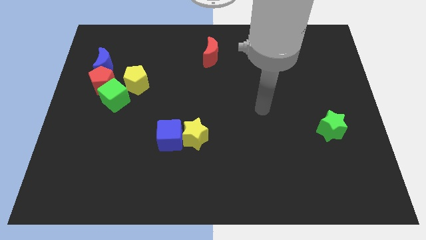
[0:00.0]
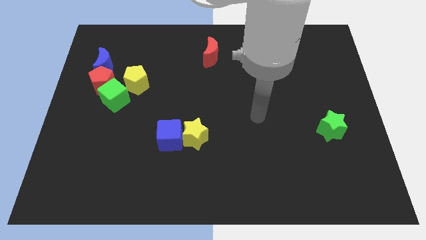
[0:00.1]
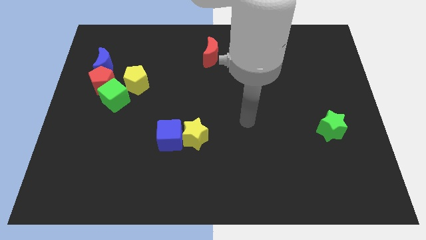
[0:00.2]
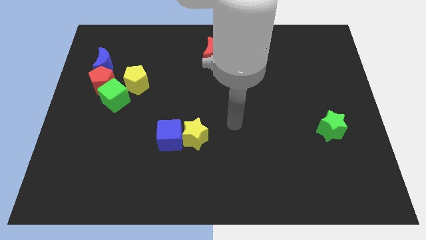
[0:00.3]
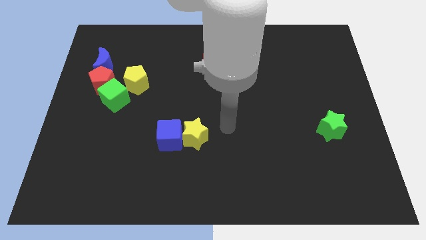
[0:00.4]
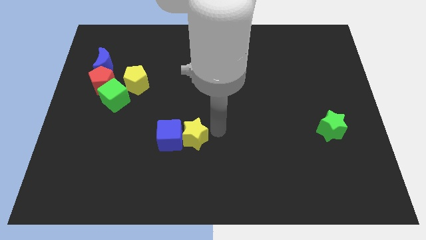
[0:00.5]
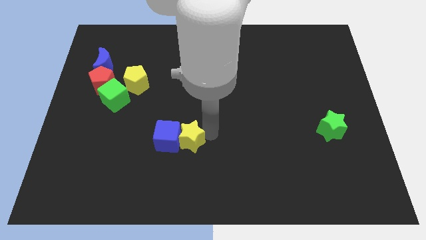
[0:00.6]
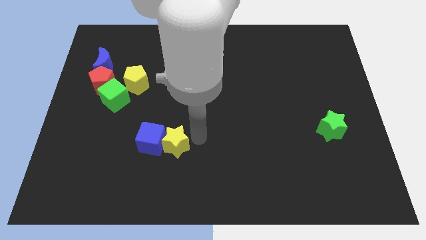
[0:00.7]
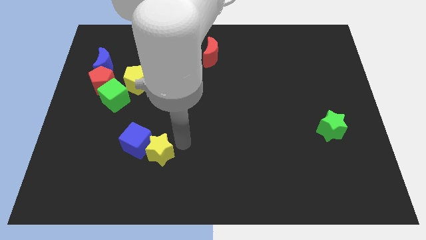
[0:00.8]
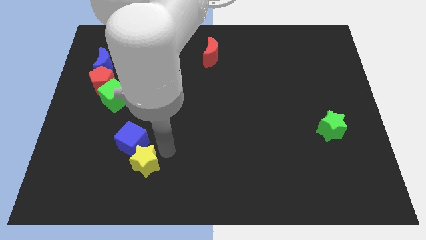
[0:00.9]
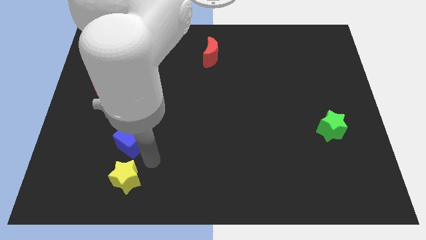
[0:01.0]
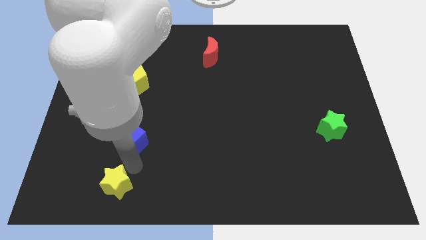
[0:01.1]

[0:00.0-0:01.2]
pull the blue cube apart from the yellow star

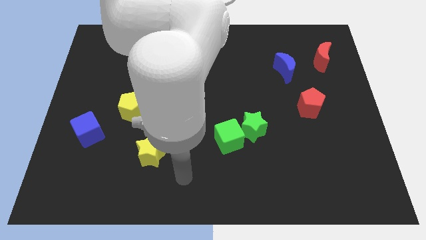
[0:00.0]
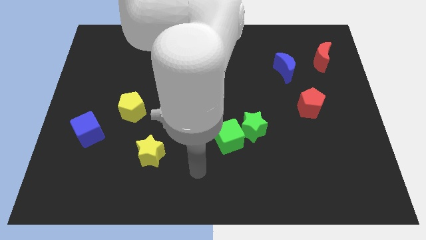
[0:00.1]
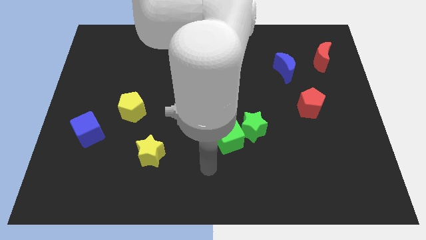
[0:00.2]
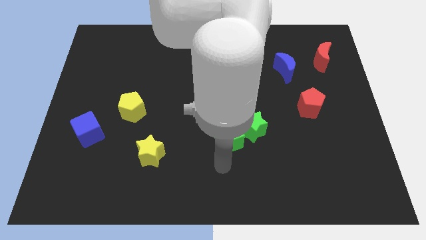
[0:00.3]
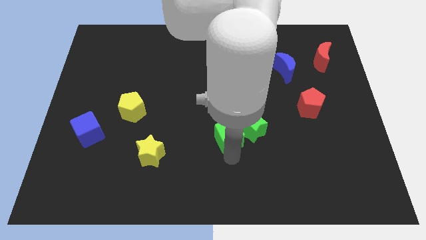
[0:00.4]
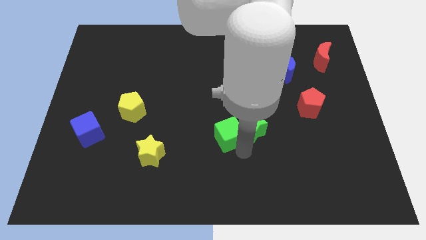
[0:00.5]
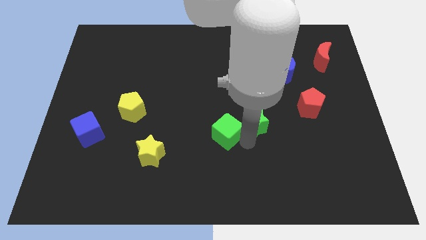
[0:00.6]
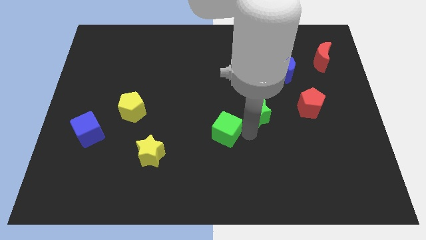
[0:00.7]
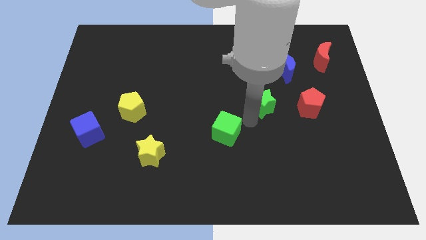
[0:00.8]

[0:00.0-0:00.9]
move the green cube away from the green star

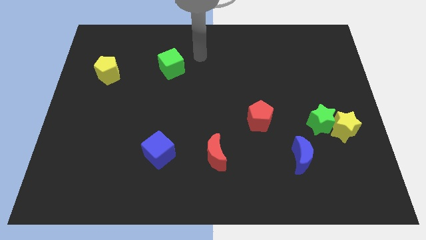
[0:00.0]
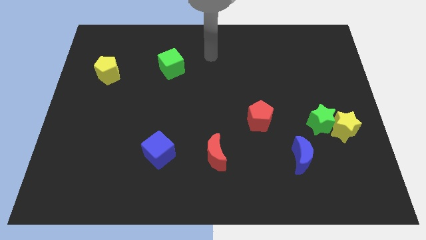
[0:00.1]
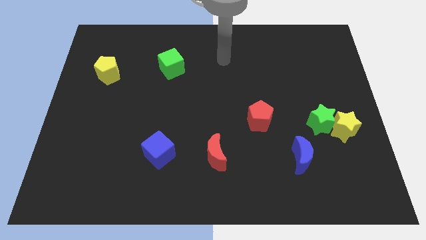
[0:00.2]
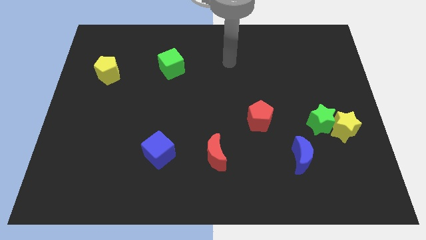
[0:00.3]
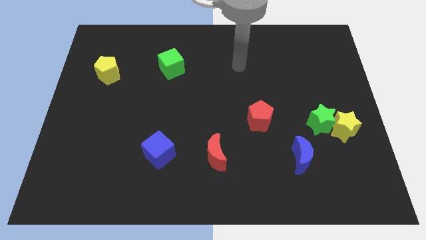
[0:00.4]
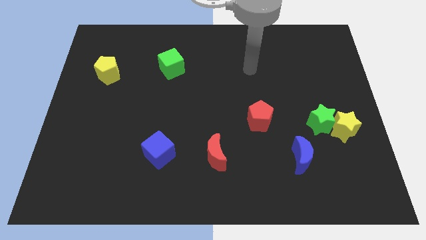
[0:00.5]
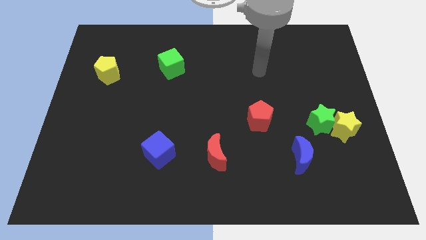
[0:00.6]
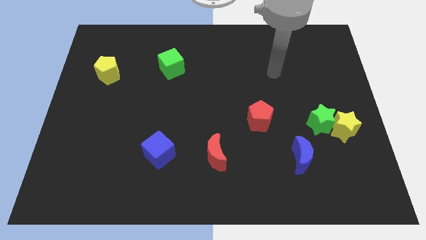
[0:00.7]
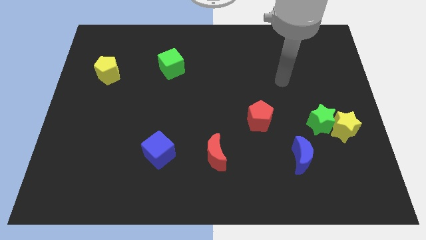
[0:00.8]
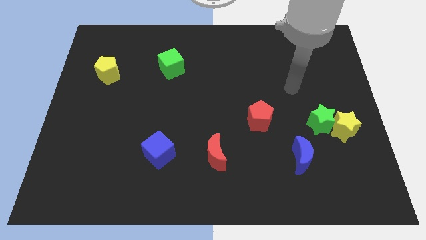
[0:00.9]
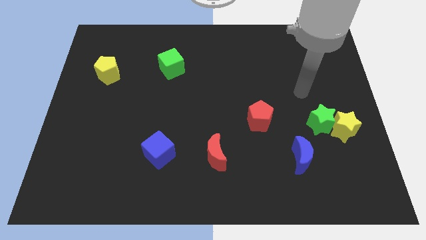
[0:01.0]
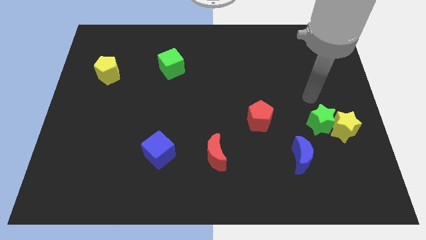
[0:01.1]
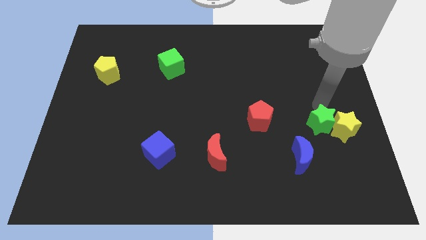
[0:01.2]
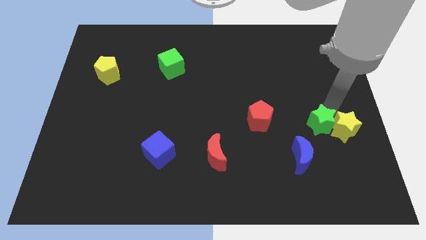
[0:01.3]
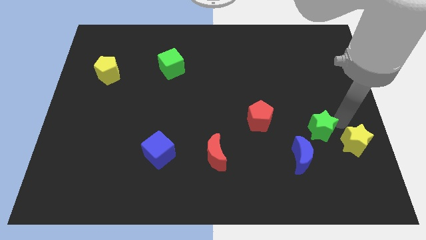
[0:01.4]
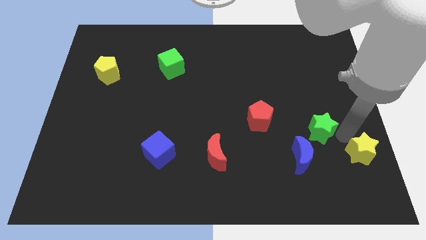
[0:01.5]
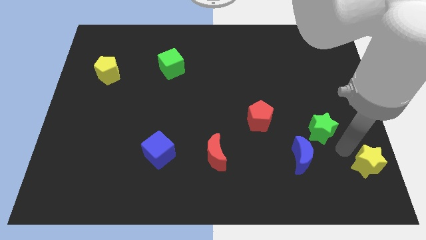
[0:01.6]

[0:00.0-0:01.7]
pull the green star apart from the yellow star

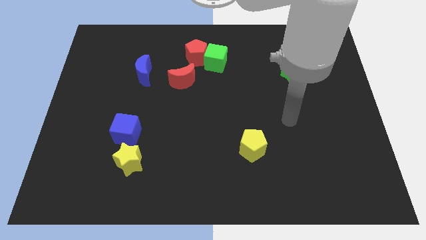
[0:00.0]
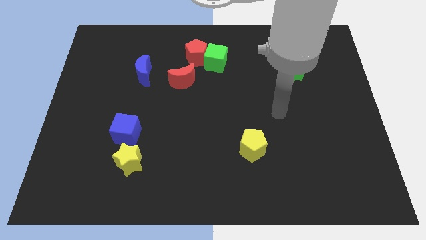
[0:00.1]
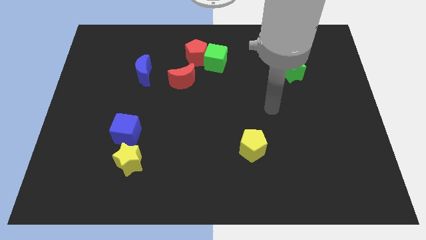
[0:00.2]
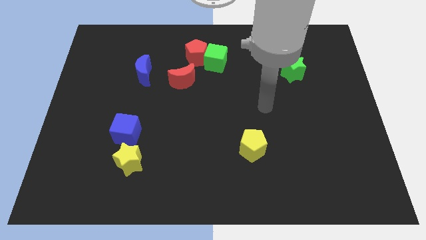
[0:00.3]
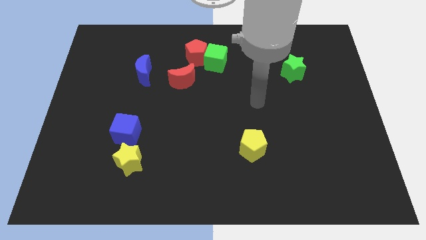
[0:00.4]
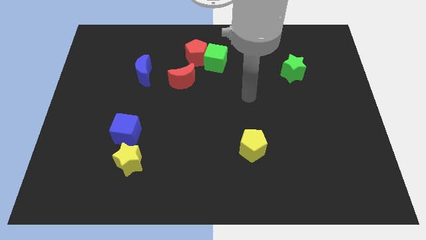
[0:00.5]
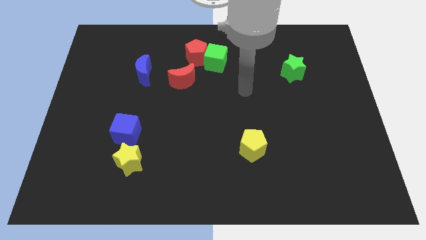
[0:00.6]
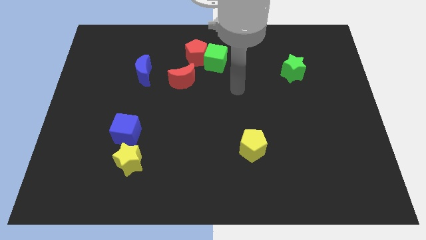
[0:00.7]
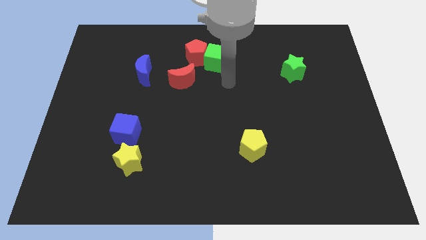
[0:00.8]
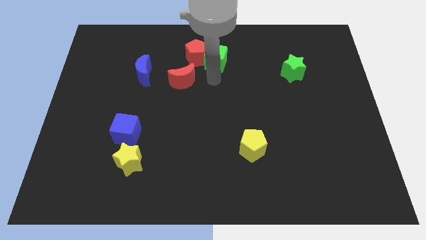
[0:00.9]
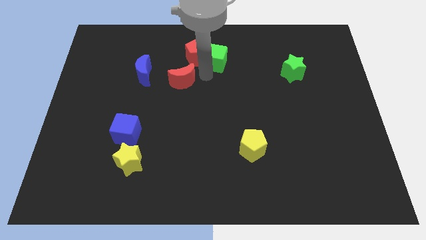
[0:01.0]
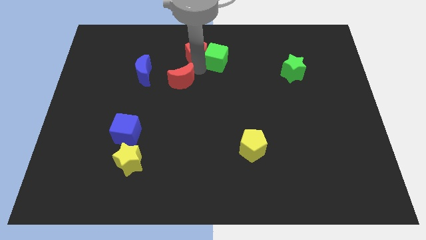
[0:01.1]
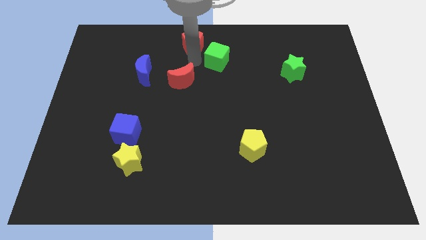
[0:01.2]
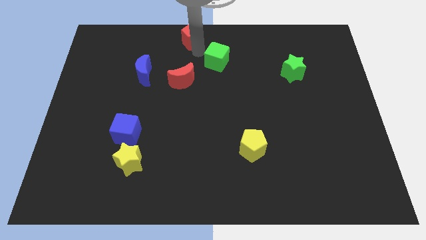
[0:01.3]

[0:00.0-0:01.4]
separate the green cube from the red pentagon

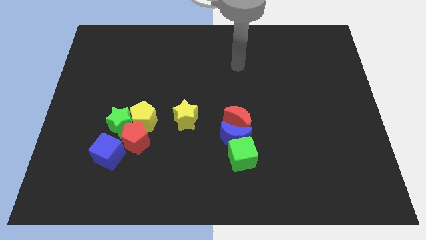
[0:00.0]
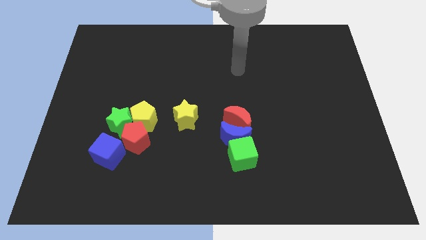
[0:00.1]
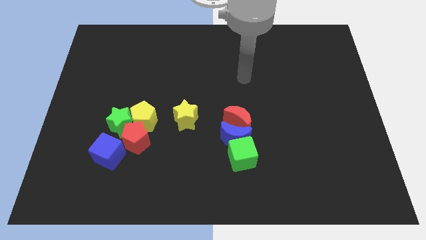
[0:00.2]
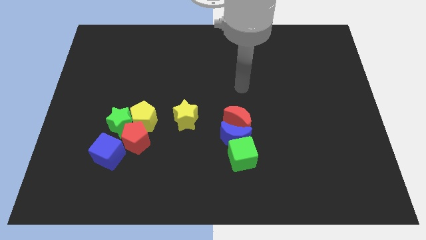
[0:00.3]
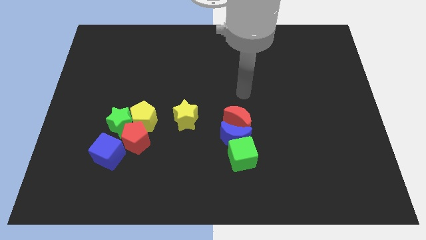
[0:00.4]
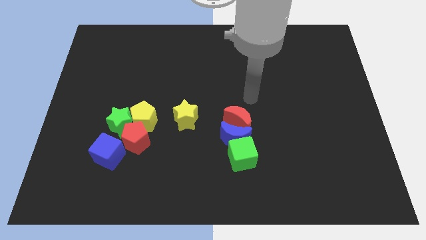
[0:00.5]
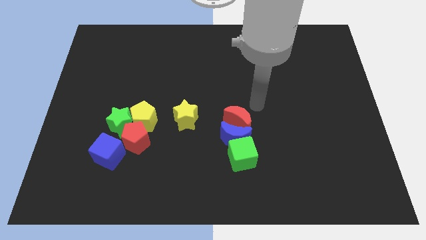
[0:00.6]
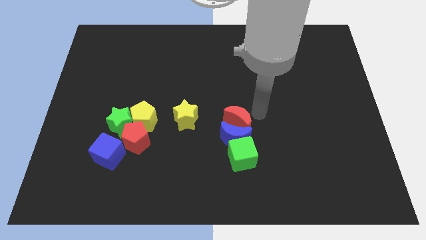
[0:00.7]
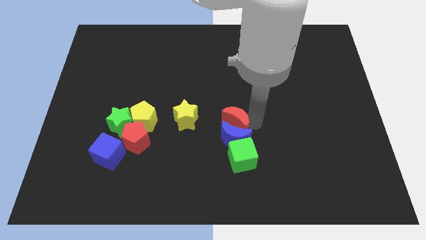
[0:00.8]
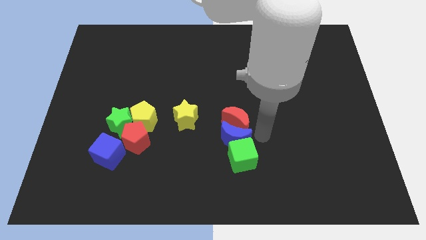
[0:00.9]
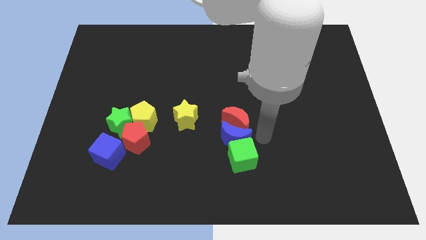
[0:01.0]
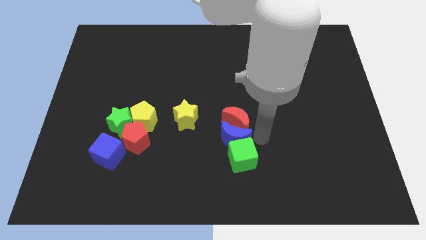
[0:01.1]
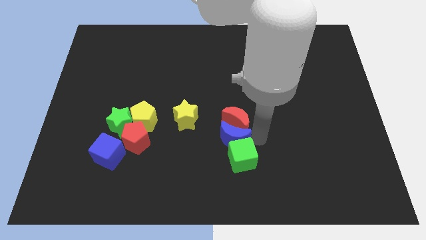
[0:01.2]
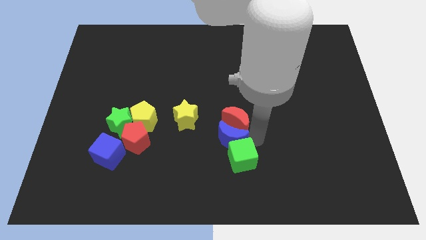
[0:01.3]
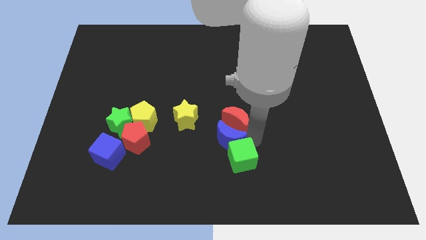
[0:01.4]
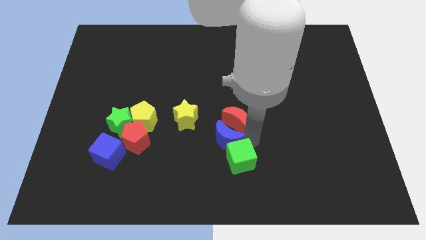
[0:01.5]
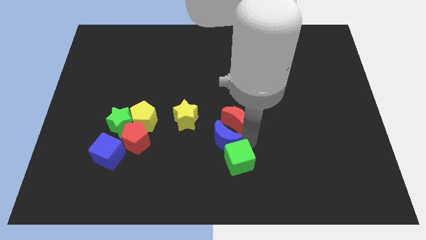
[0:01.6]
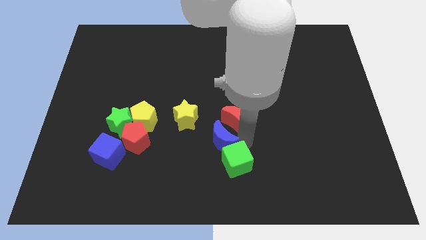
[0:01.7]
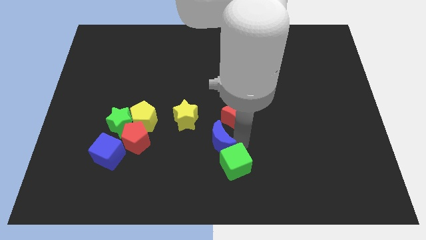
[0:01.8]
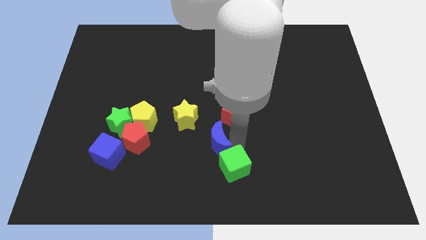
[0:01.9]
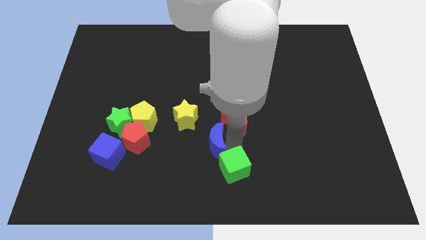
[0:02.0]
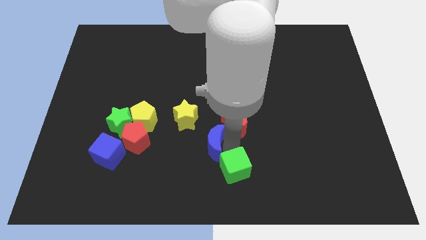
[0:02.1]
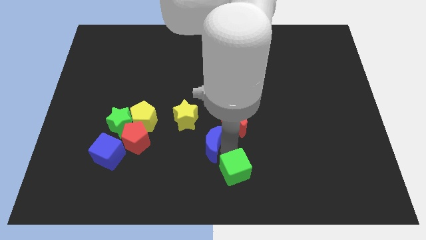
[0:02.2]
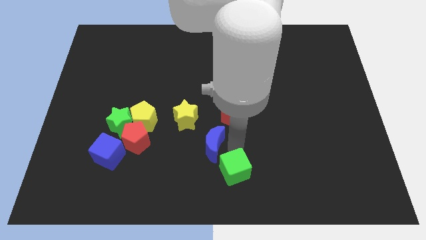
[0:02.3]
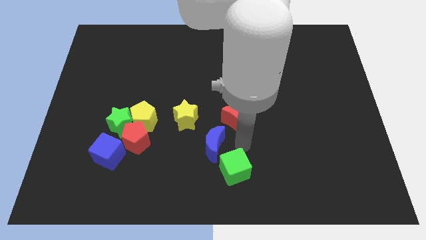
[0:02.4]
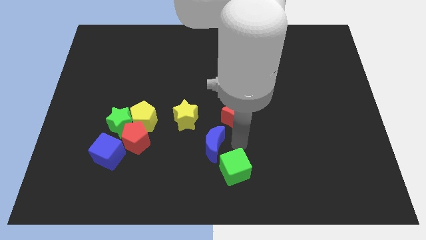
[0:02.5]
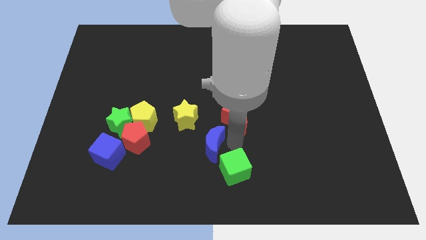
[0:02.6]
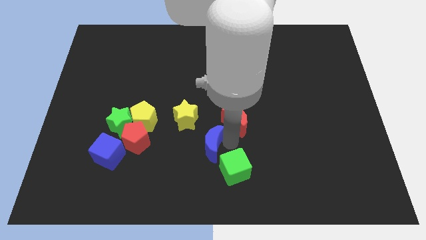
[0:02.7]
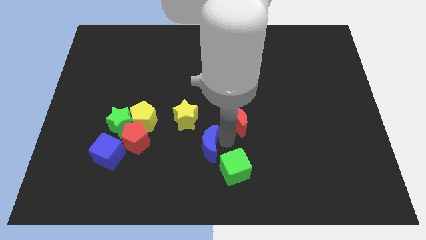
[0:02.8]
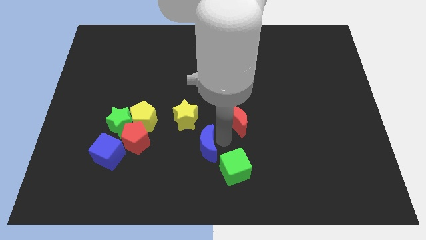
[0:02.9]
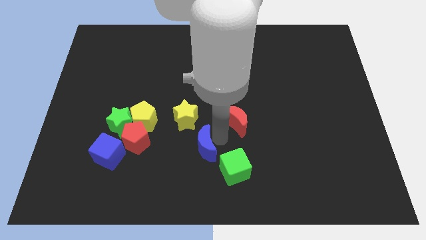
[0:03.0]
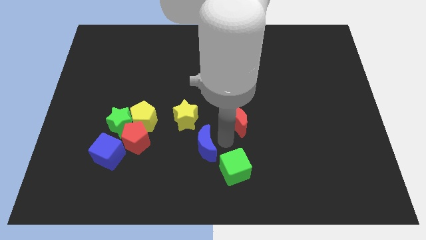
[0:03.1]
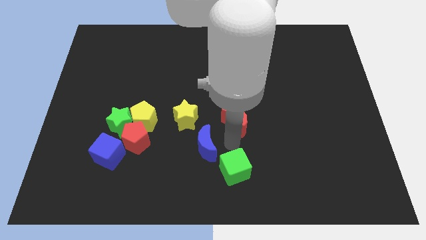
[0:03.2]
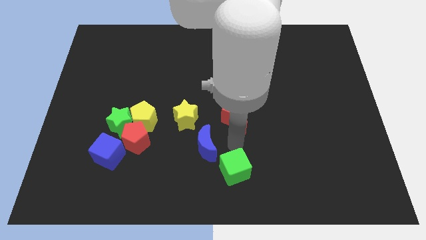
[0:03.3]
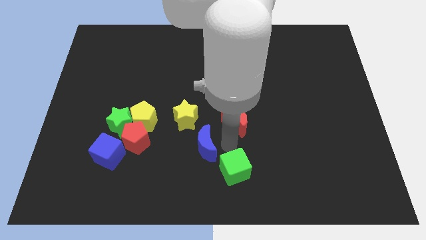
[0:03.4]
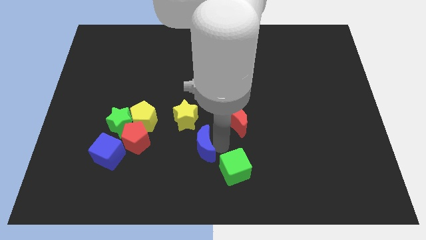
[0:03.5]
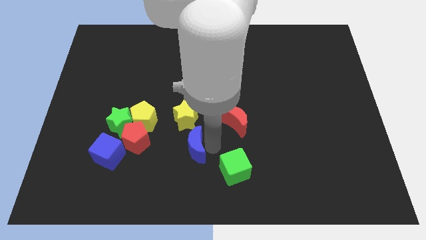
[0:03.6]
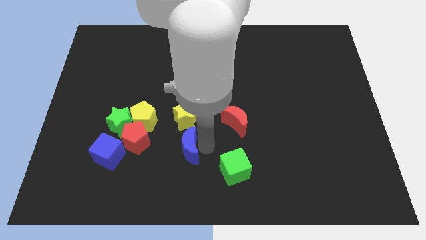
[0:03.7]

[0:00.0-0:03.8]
pull the blue moon apart from the red moon and green cube

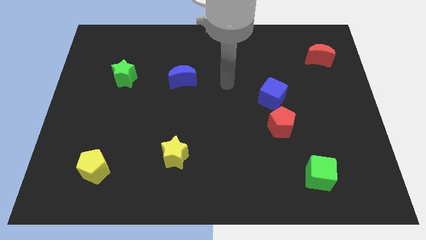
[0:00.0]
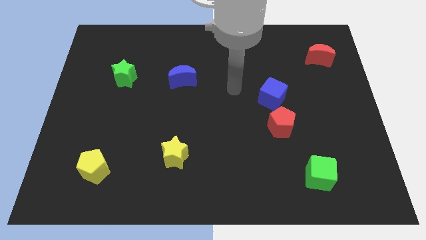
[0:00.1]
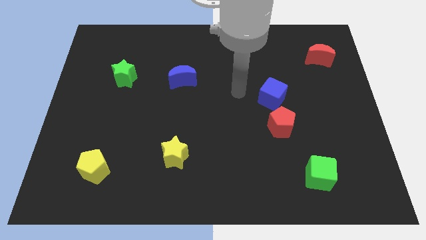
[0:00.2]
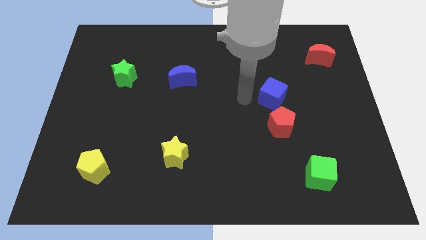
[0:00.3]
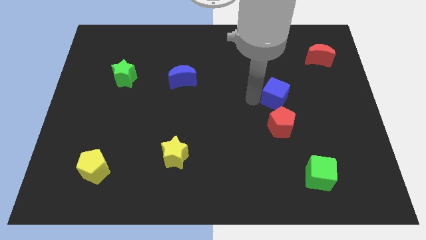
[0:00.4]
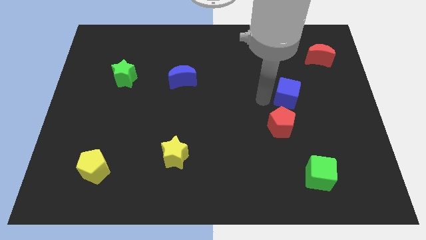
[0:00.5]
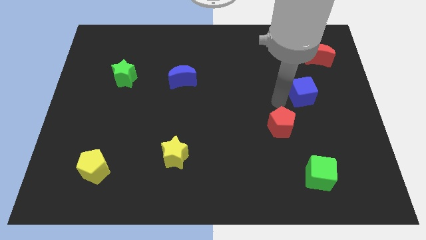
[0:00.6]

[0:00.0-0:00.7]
pull the red pentagon apart from the blue cube
